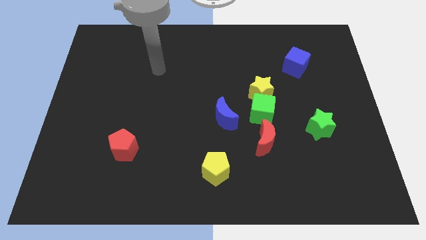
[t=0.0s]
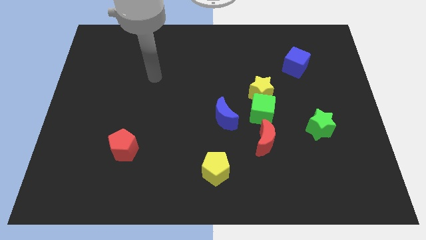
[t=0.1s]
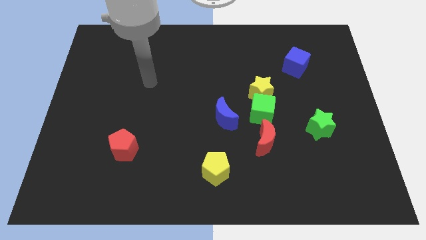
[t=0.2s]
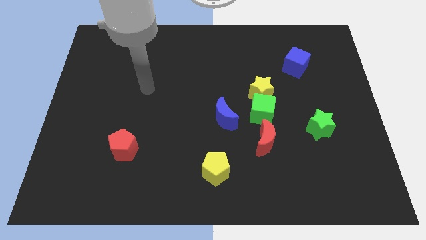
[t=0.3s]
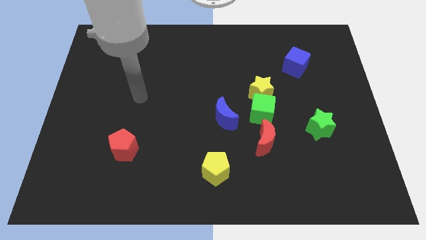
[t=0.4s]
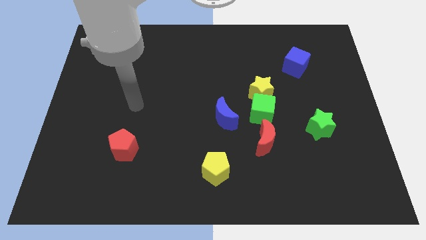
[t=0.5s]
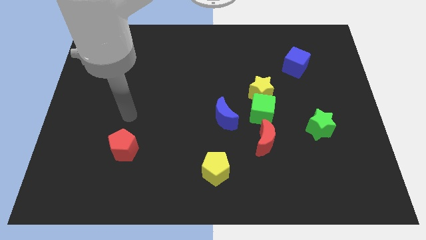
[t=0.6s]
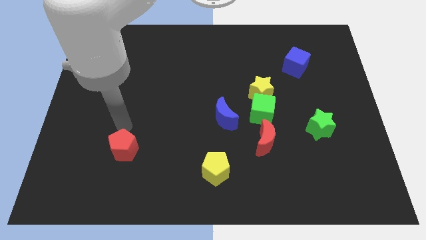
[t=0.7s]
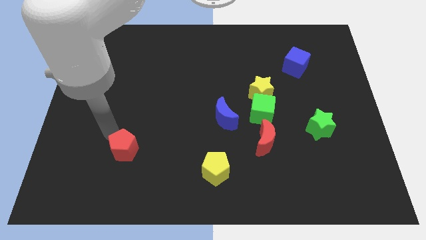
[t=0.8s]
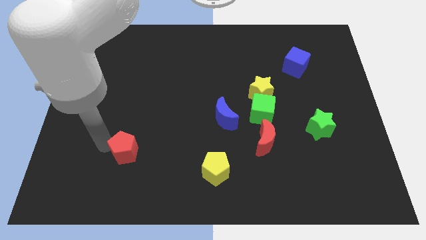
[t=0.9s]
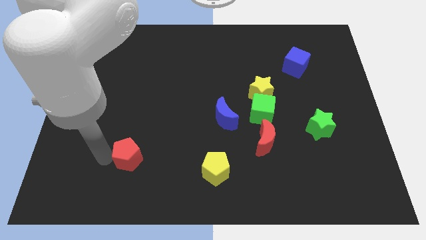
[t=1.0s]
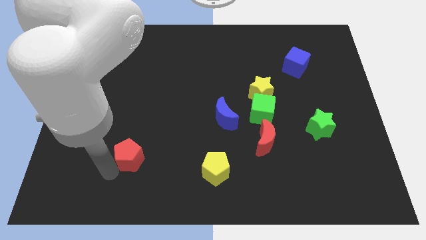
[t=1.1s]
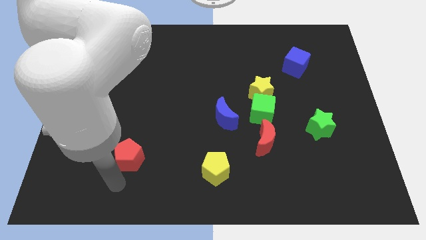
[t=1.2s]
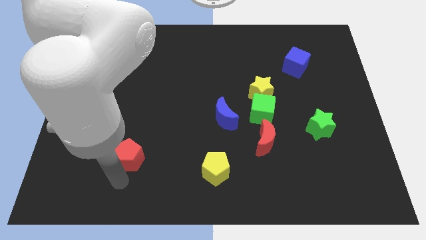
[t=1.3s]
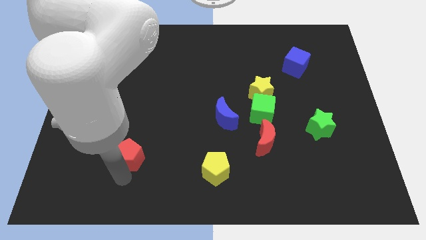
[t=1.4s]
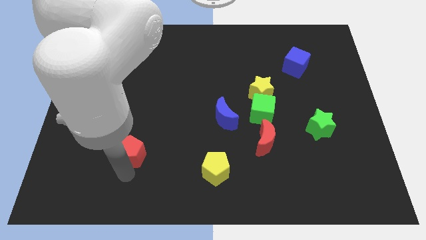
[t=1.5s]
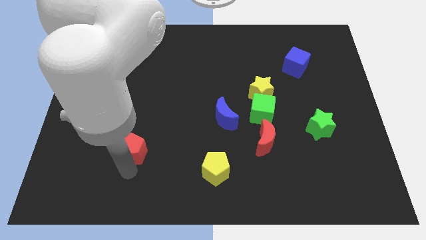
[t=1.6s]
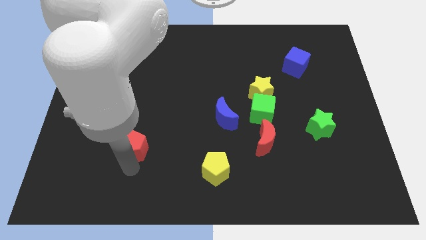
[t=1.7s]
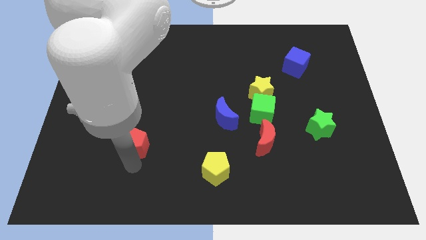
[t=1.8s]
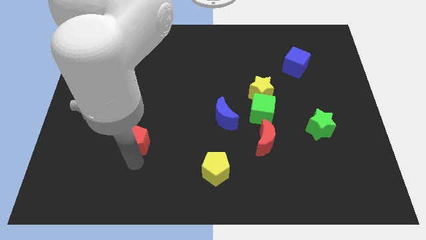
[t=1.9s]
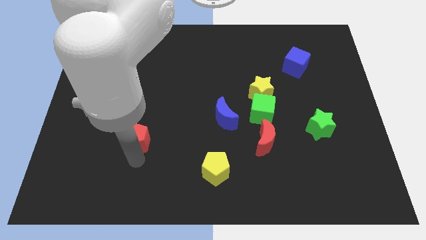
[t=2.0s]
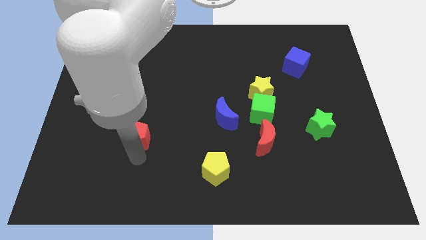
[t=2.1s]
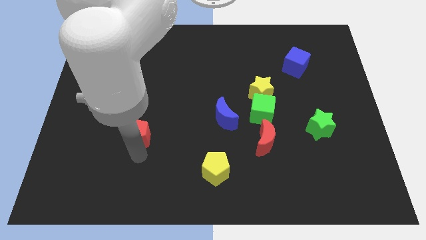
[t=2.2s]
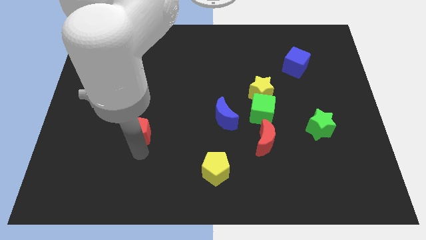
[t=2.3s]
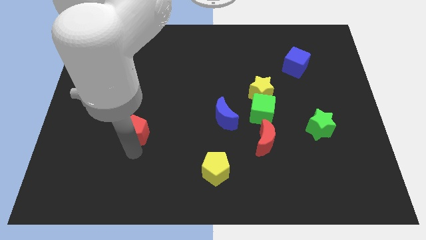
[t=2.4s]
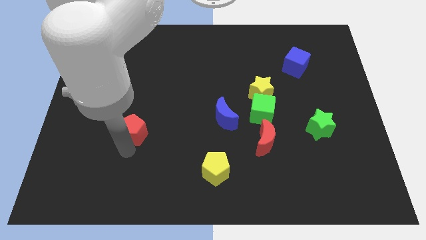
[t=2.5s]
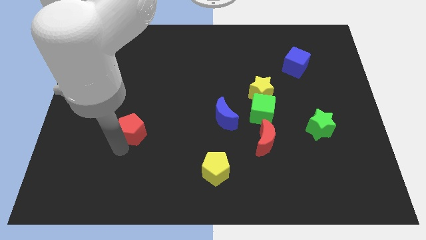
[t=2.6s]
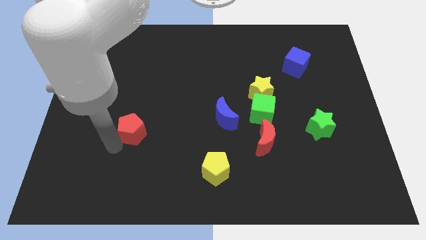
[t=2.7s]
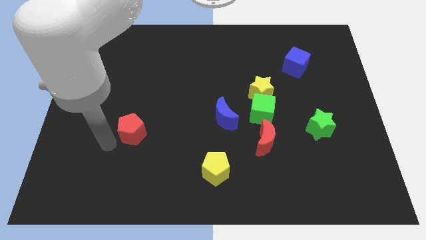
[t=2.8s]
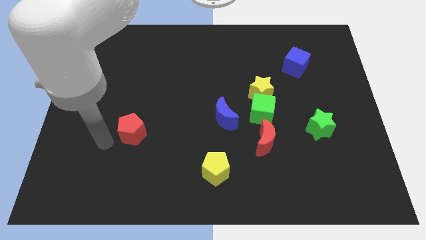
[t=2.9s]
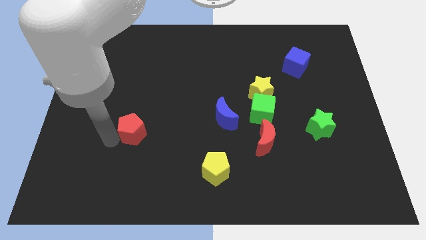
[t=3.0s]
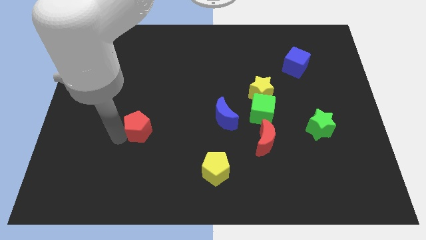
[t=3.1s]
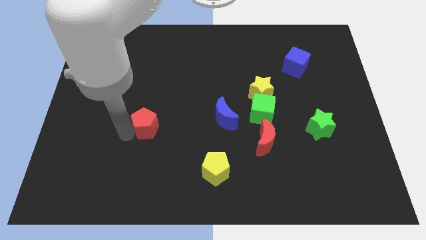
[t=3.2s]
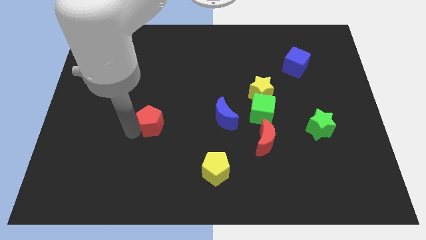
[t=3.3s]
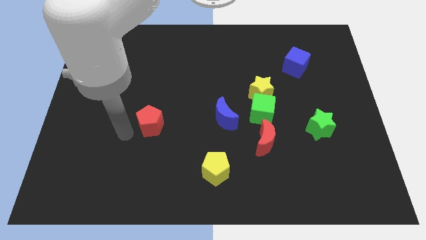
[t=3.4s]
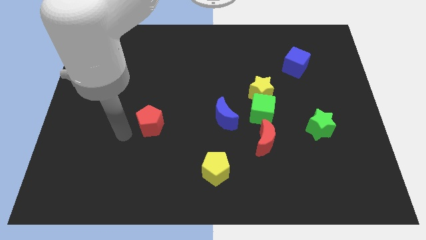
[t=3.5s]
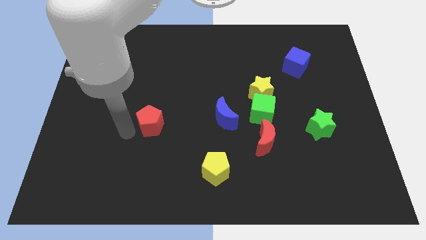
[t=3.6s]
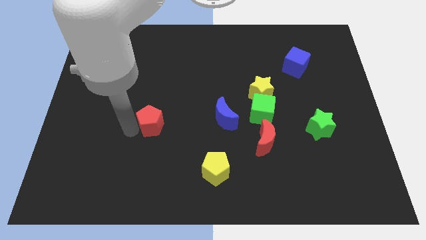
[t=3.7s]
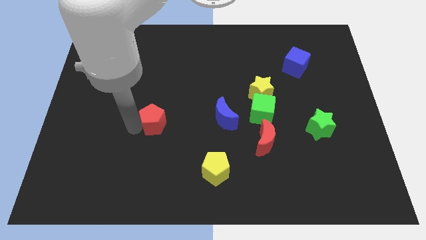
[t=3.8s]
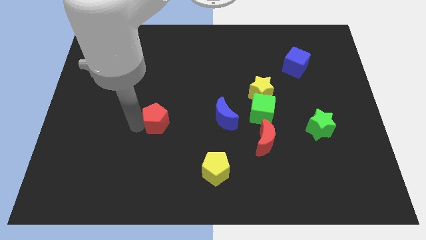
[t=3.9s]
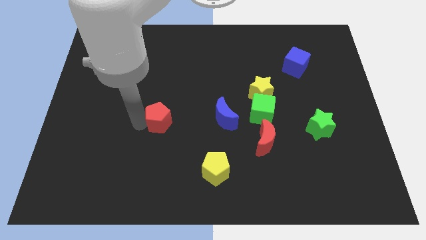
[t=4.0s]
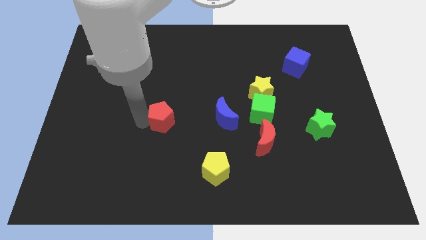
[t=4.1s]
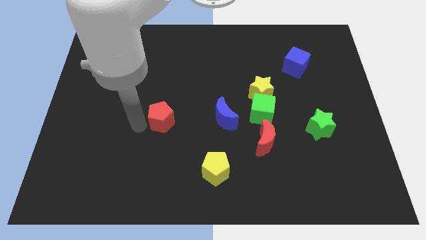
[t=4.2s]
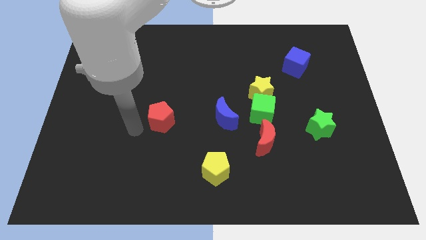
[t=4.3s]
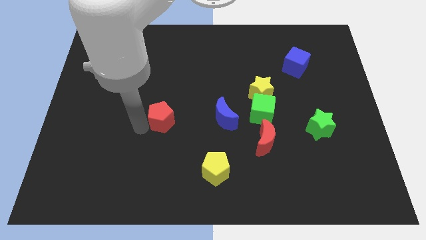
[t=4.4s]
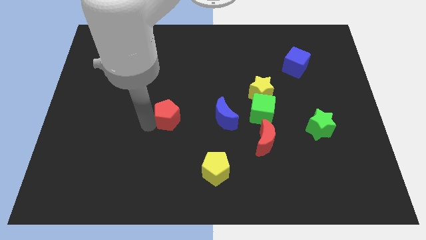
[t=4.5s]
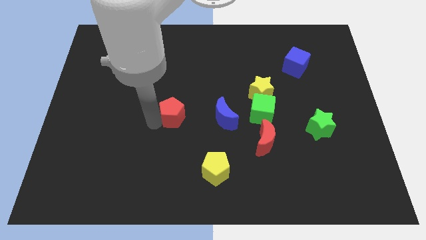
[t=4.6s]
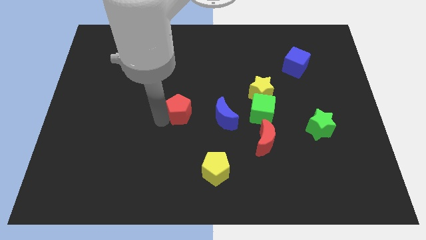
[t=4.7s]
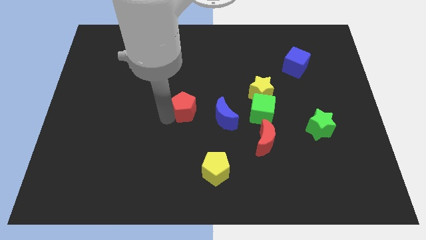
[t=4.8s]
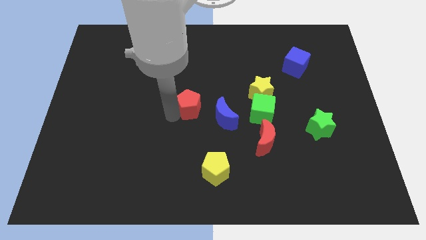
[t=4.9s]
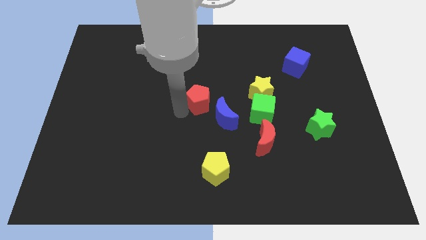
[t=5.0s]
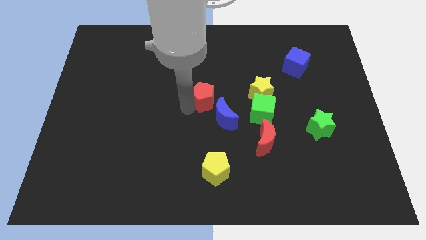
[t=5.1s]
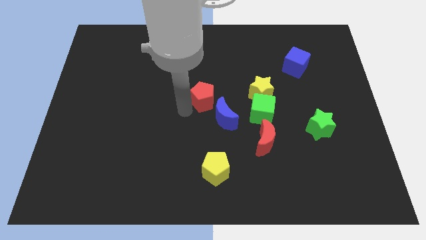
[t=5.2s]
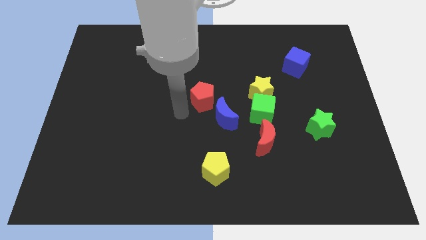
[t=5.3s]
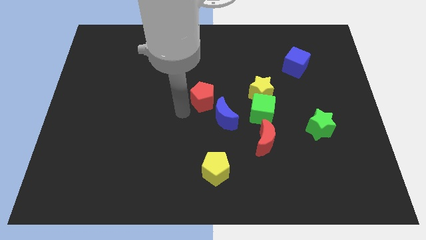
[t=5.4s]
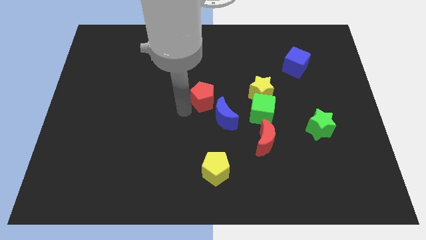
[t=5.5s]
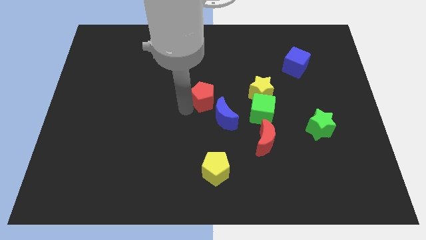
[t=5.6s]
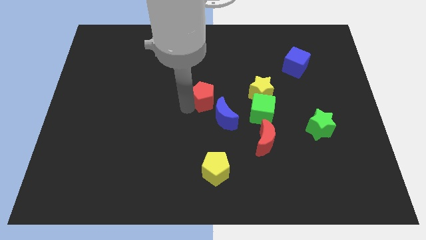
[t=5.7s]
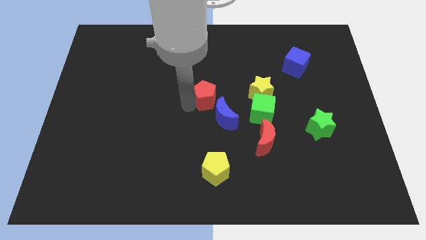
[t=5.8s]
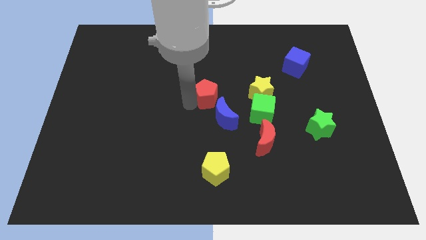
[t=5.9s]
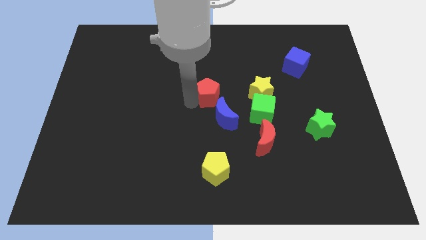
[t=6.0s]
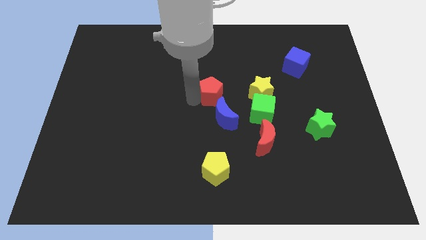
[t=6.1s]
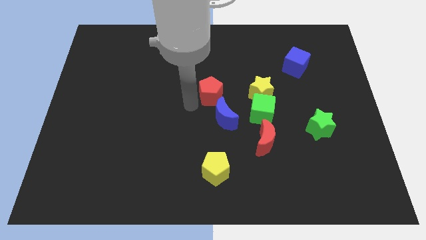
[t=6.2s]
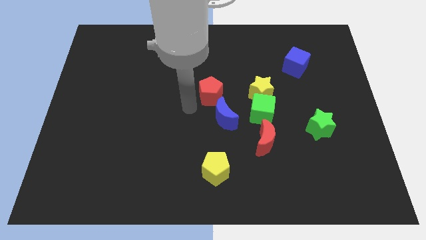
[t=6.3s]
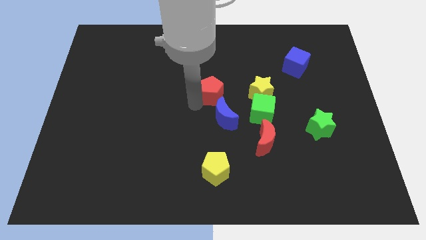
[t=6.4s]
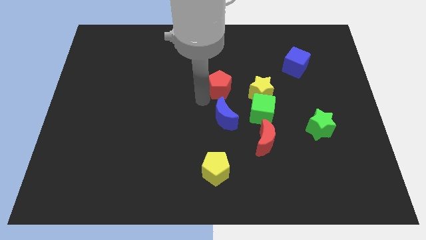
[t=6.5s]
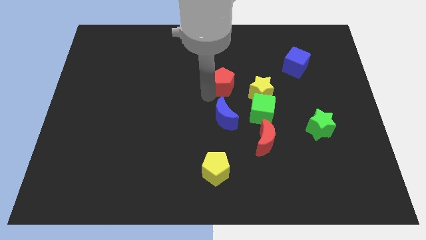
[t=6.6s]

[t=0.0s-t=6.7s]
put the red pentagon to the top left side of the yellow star

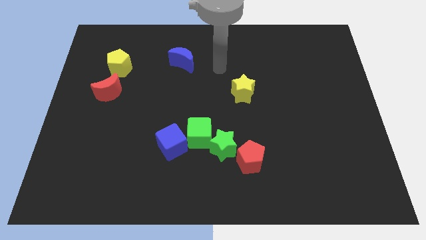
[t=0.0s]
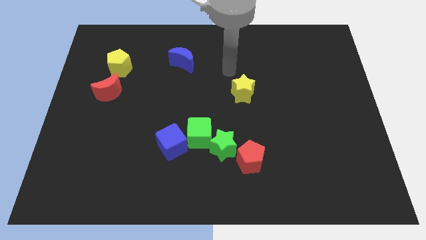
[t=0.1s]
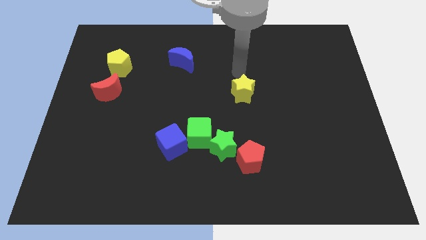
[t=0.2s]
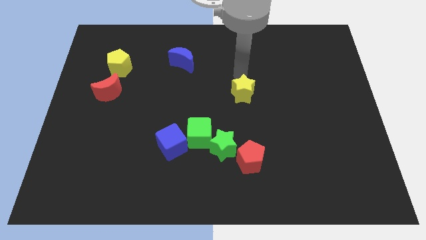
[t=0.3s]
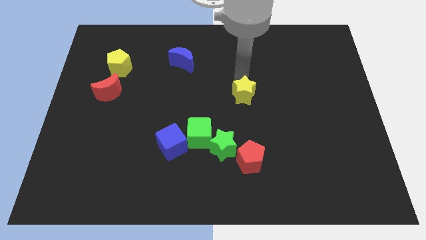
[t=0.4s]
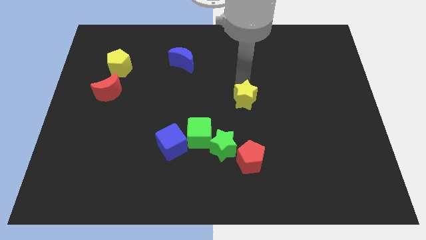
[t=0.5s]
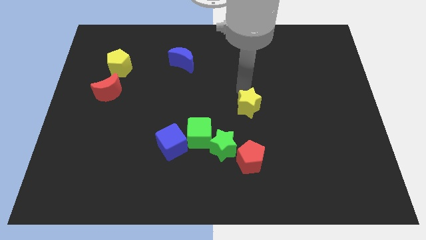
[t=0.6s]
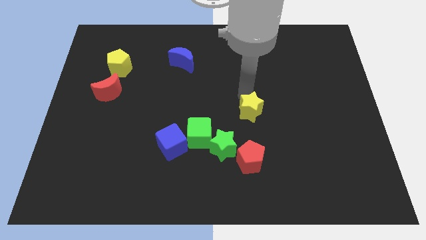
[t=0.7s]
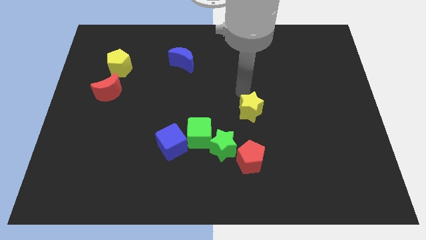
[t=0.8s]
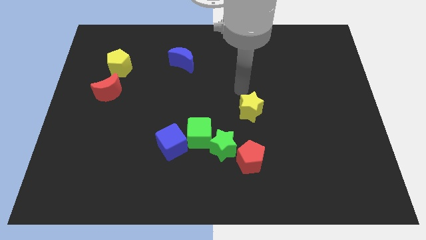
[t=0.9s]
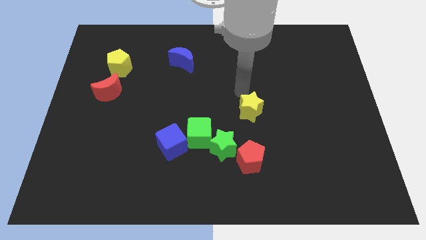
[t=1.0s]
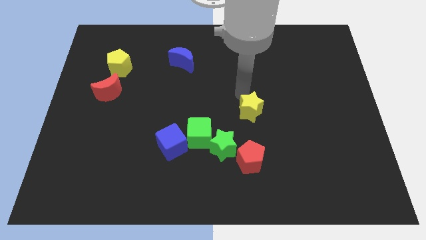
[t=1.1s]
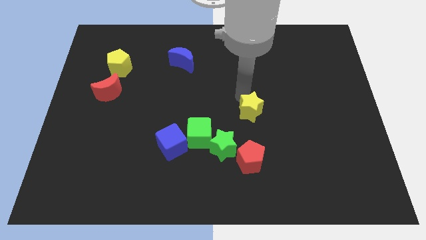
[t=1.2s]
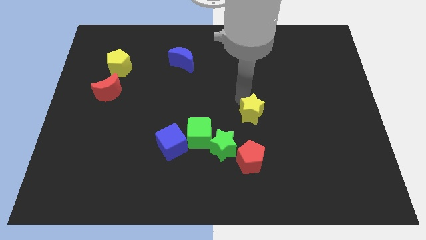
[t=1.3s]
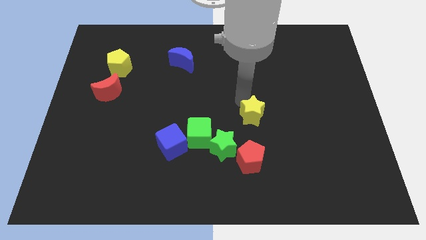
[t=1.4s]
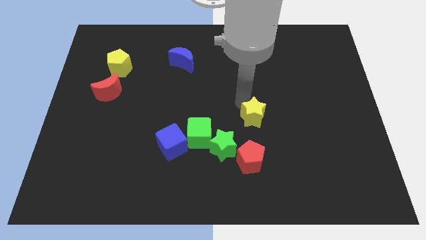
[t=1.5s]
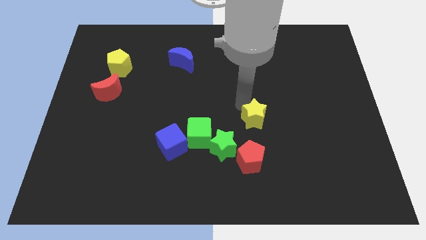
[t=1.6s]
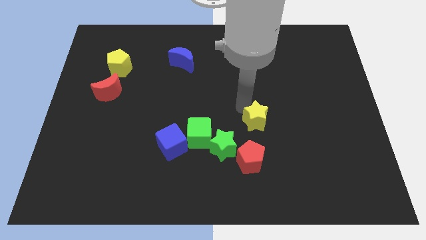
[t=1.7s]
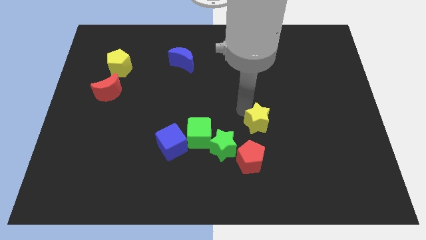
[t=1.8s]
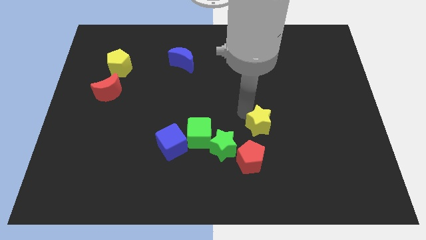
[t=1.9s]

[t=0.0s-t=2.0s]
push the yellow star to the top right of the red pentagon
